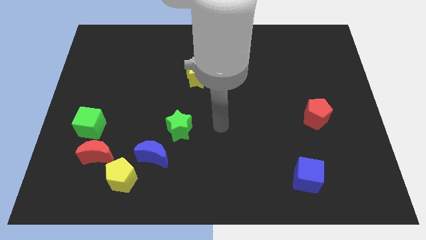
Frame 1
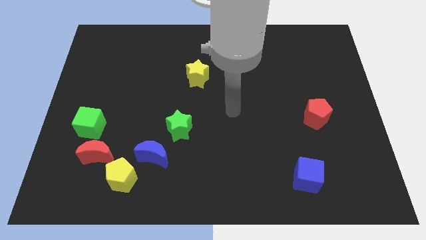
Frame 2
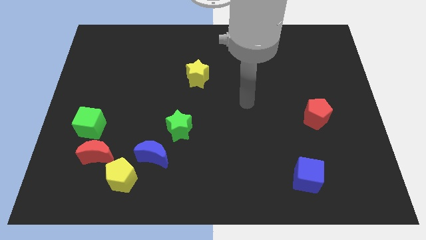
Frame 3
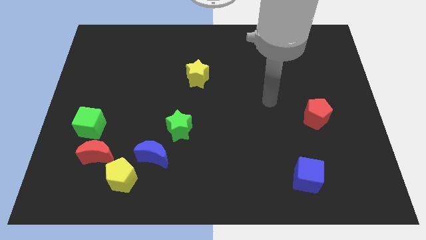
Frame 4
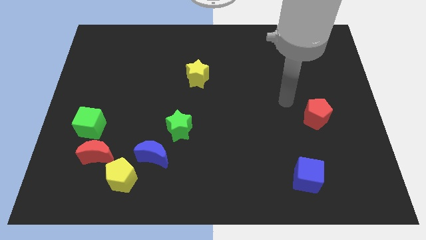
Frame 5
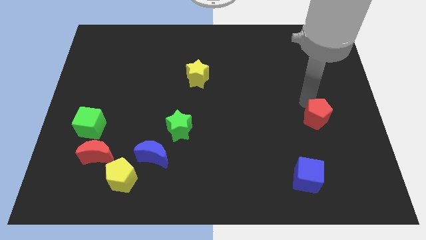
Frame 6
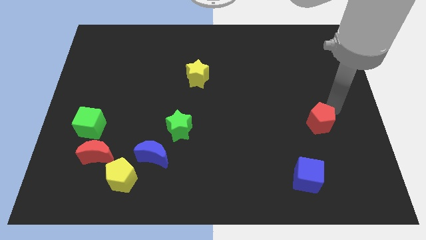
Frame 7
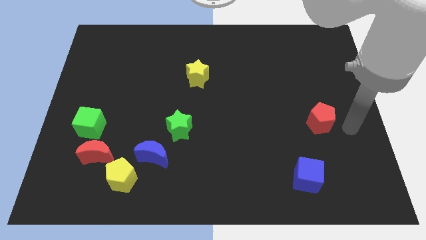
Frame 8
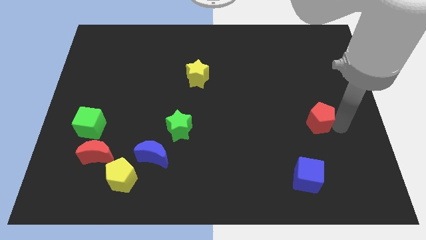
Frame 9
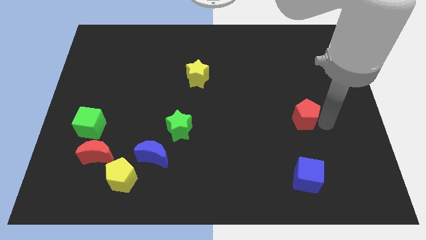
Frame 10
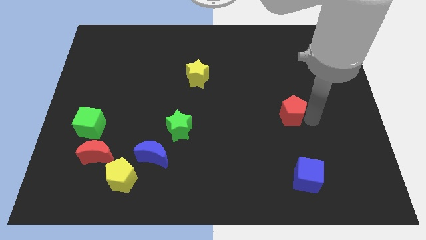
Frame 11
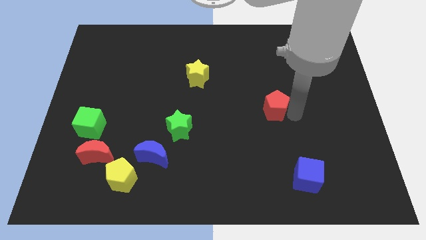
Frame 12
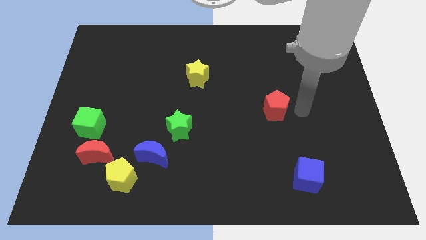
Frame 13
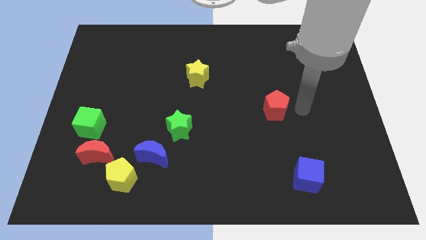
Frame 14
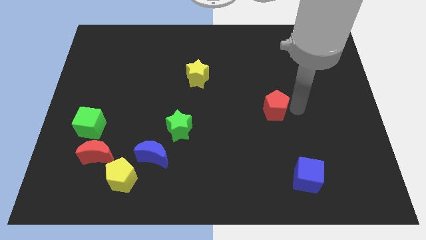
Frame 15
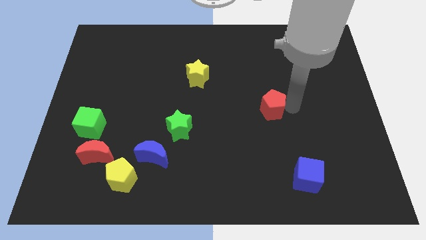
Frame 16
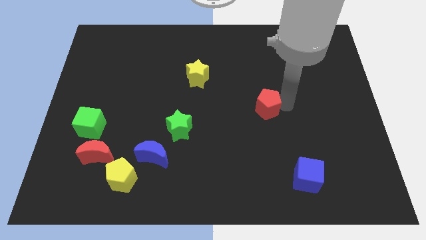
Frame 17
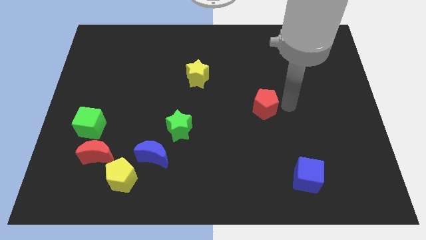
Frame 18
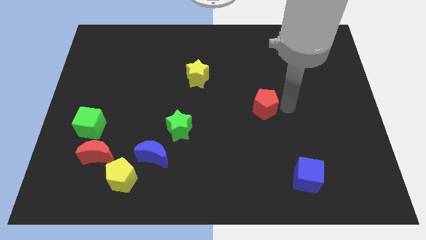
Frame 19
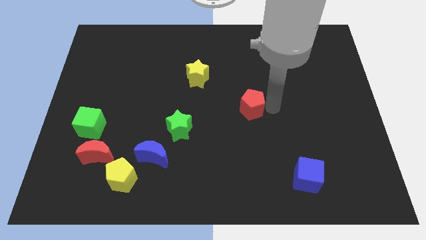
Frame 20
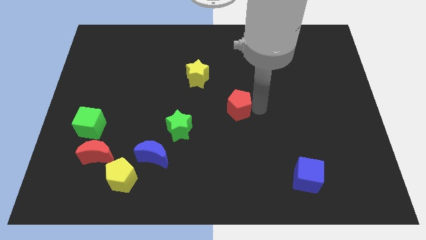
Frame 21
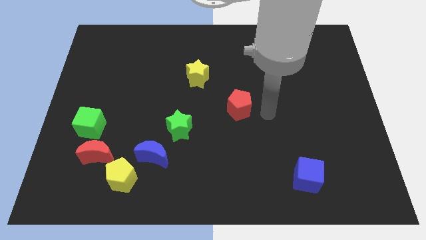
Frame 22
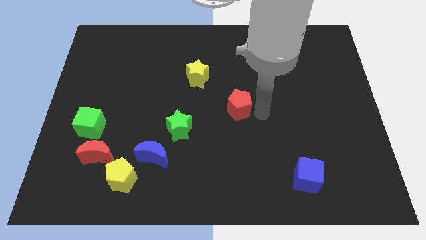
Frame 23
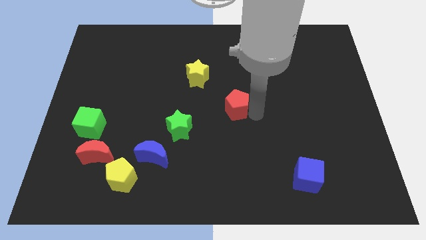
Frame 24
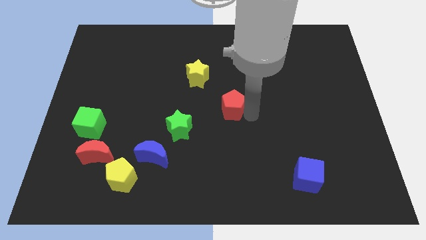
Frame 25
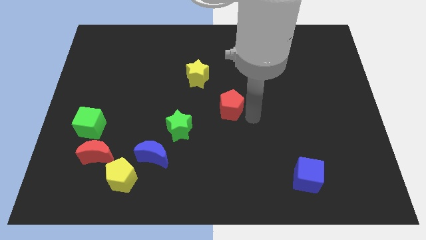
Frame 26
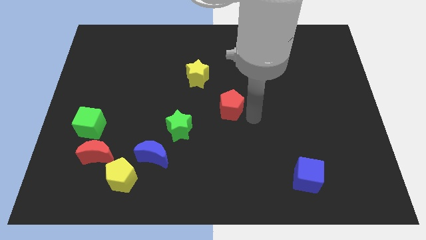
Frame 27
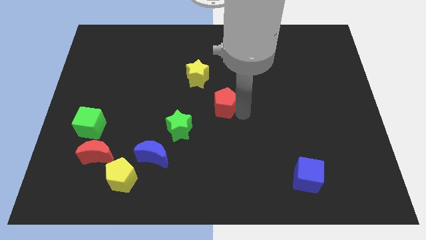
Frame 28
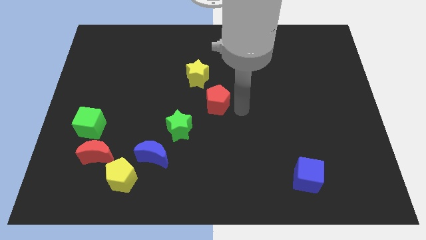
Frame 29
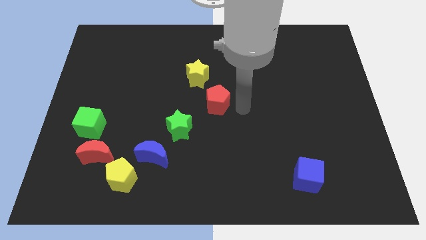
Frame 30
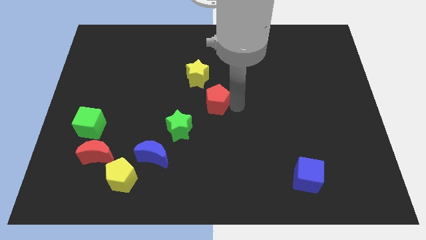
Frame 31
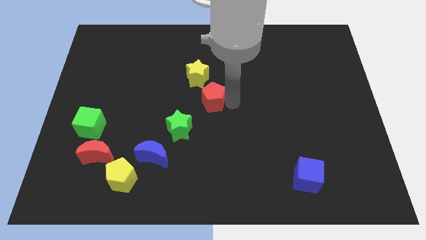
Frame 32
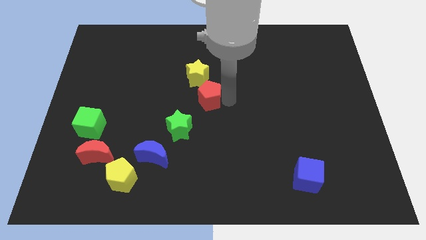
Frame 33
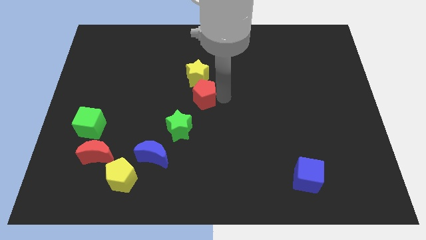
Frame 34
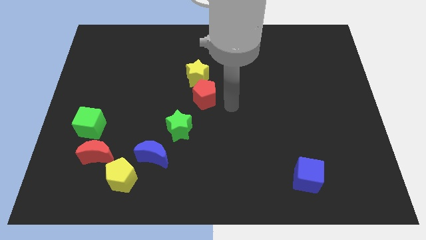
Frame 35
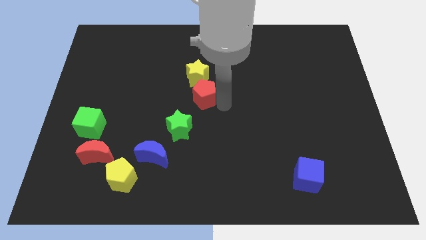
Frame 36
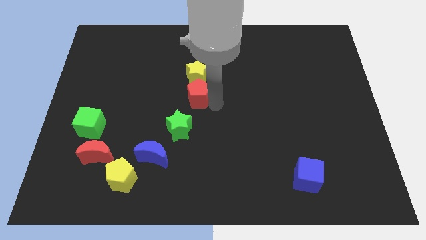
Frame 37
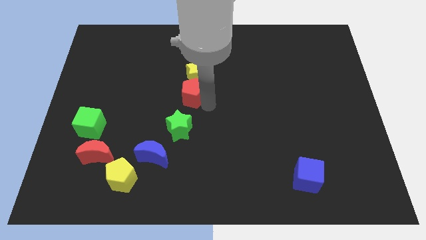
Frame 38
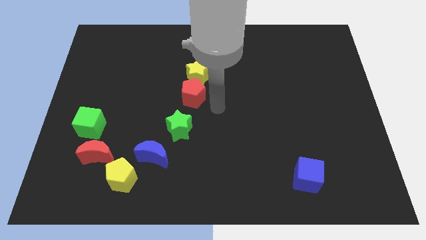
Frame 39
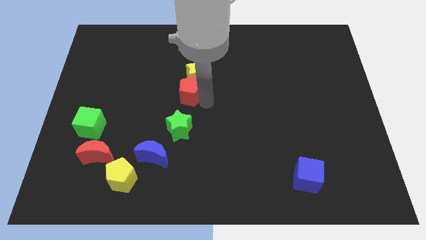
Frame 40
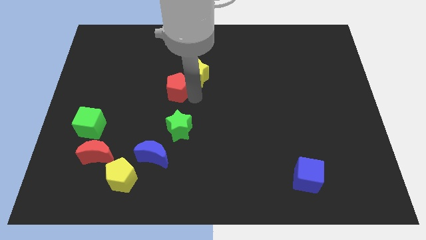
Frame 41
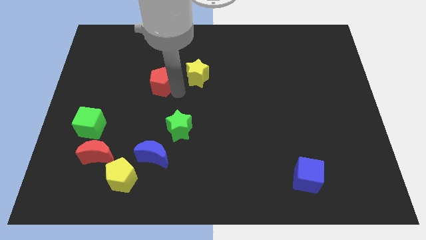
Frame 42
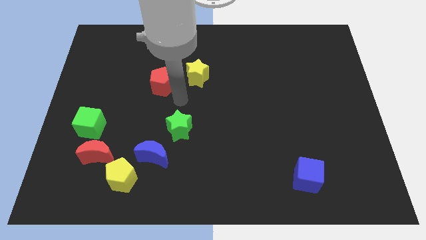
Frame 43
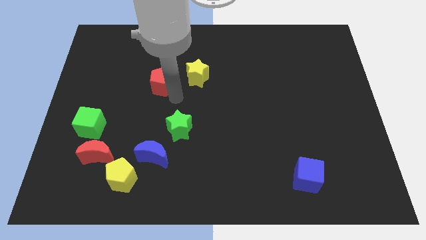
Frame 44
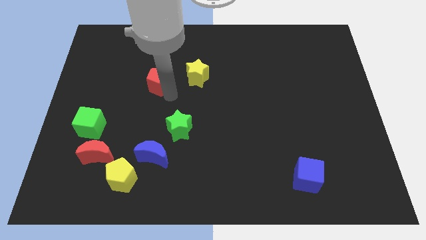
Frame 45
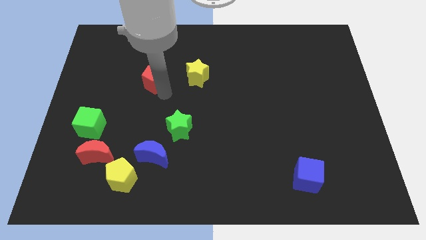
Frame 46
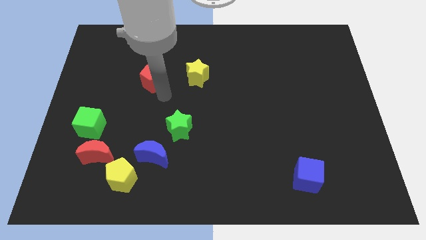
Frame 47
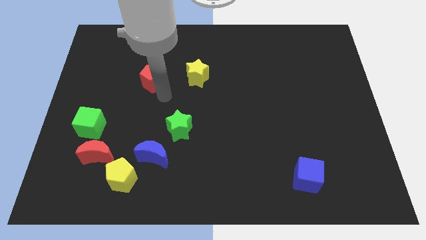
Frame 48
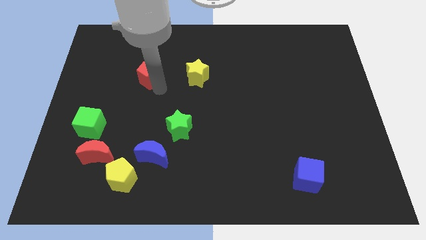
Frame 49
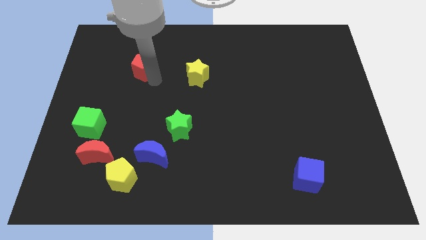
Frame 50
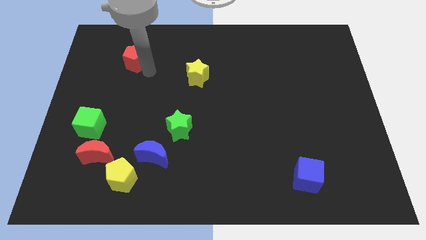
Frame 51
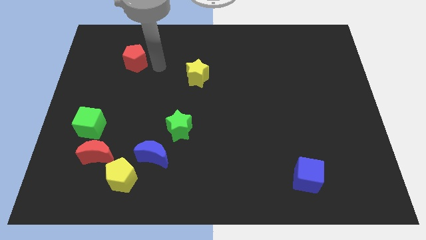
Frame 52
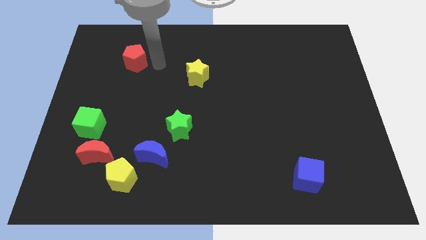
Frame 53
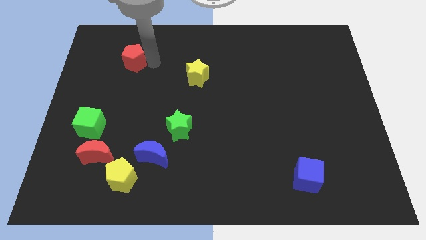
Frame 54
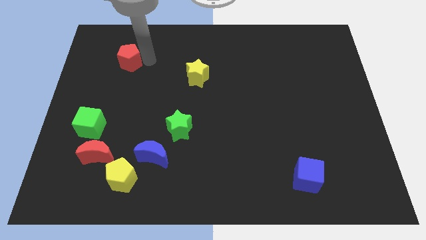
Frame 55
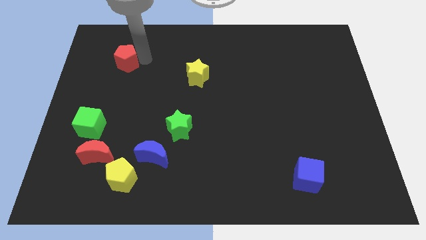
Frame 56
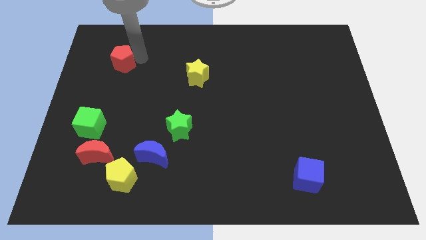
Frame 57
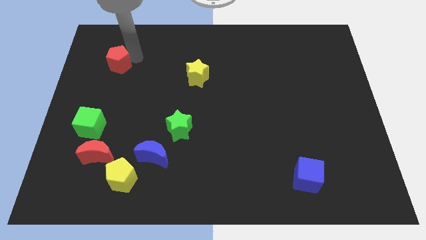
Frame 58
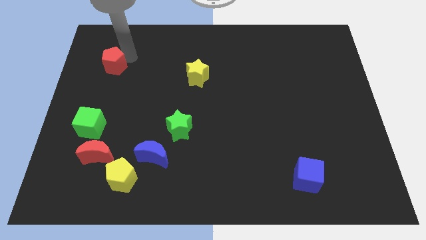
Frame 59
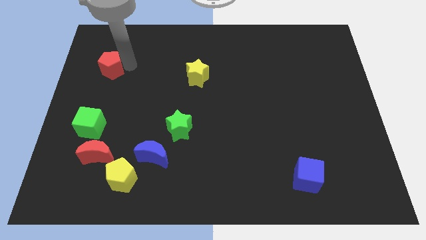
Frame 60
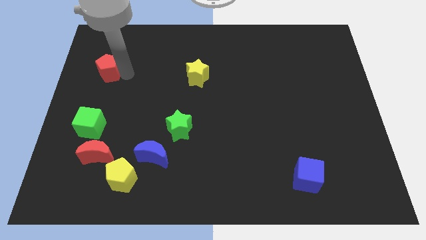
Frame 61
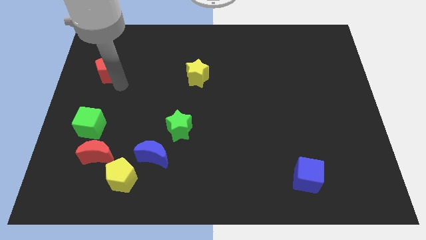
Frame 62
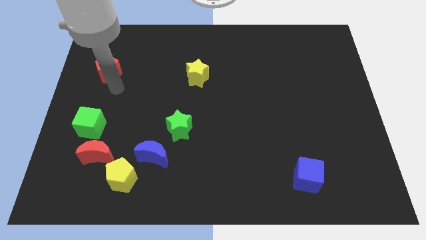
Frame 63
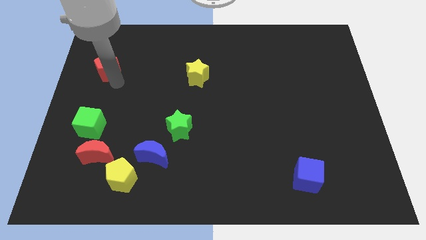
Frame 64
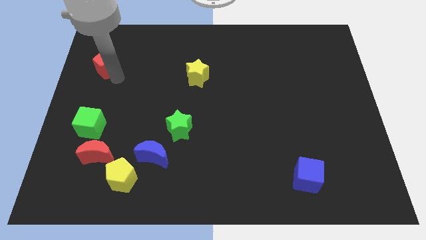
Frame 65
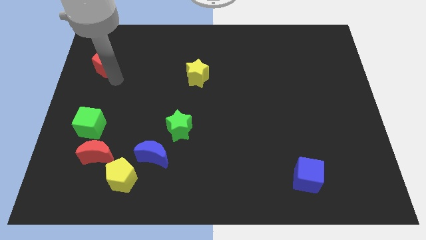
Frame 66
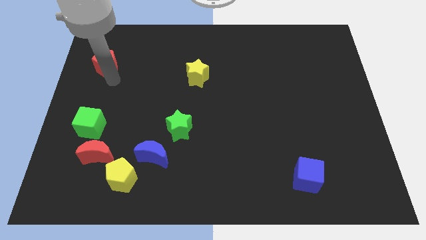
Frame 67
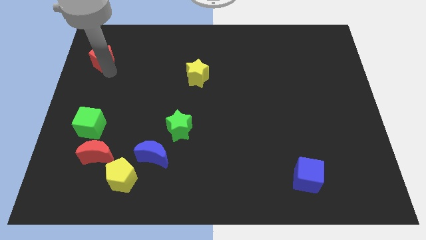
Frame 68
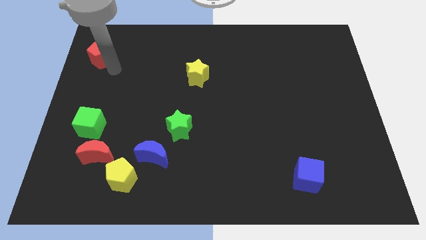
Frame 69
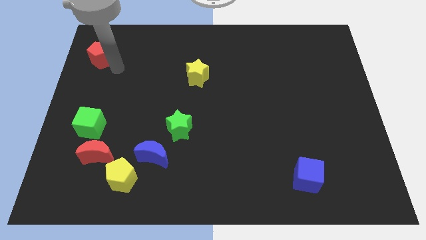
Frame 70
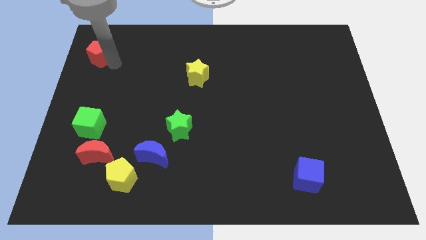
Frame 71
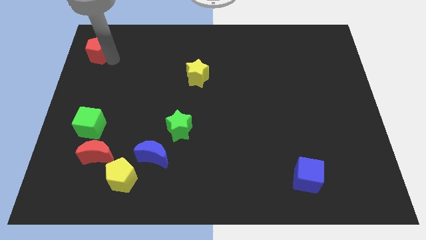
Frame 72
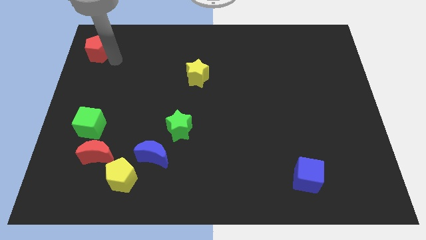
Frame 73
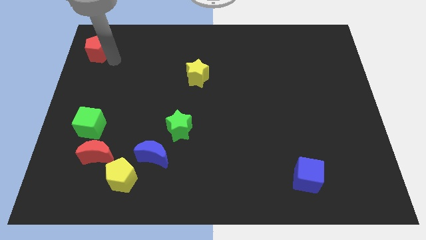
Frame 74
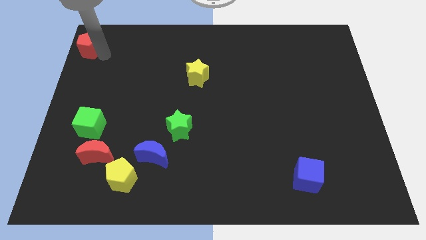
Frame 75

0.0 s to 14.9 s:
put the red pentagon to the top left
